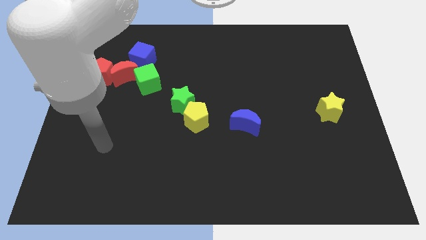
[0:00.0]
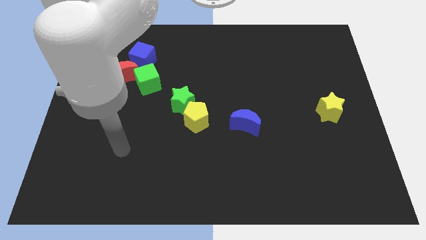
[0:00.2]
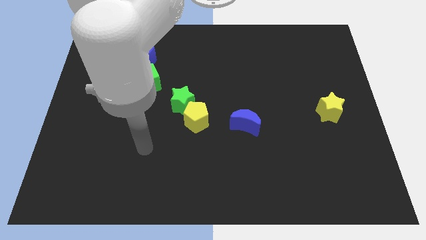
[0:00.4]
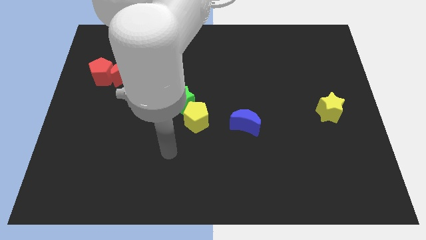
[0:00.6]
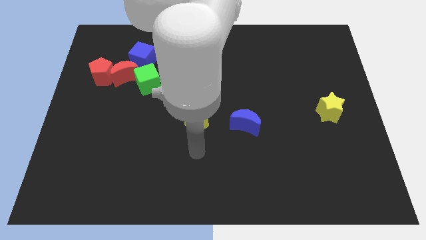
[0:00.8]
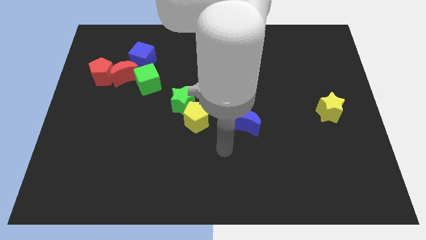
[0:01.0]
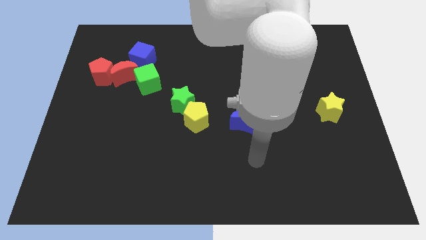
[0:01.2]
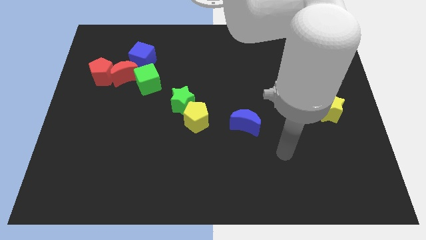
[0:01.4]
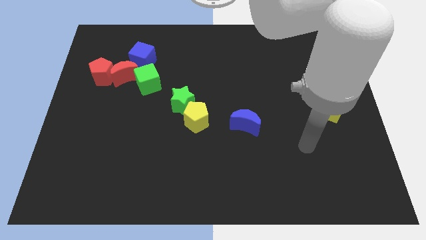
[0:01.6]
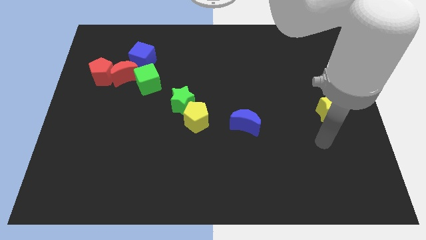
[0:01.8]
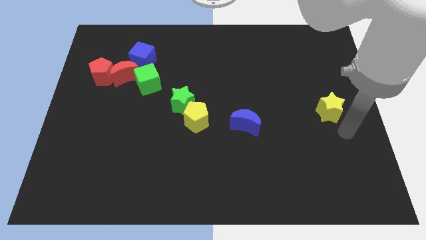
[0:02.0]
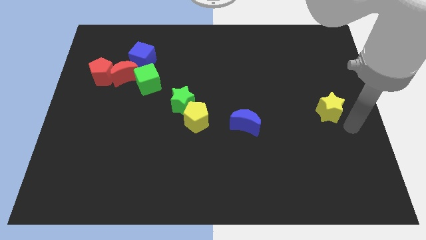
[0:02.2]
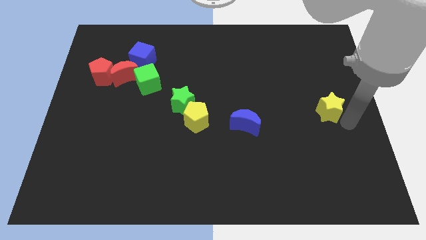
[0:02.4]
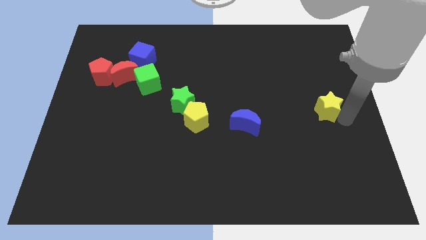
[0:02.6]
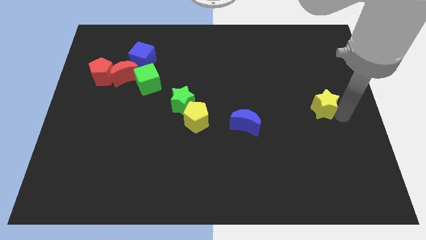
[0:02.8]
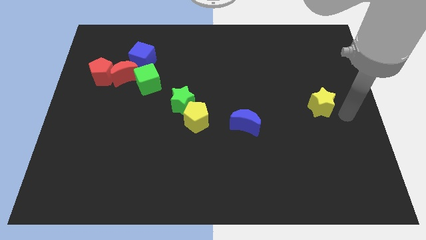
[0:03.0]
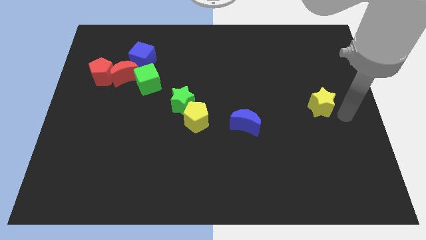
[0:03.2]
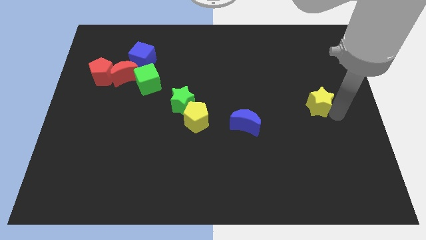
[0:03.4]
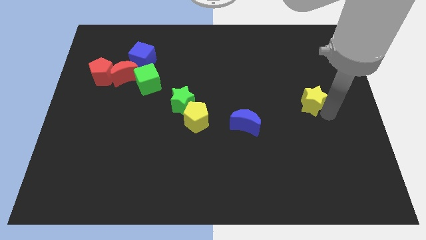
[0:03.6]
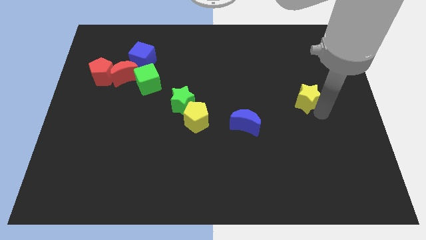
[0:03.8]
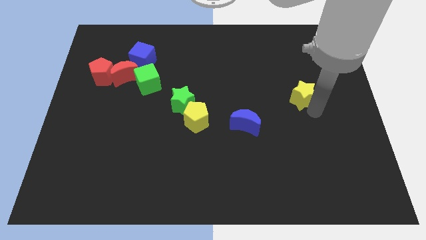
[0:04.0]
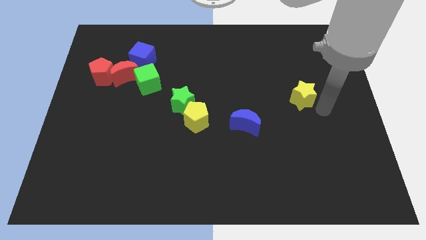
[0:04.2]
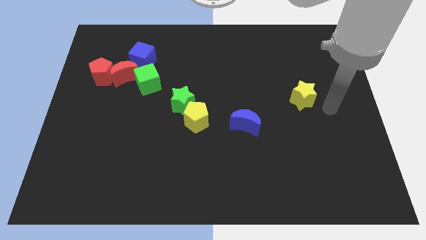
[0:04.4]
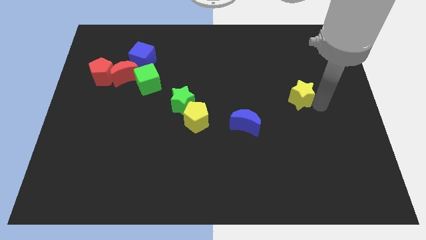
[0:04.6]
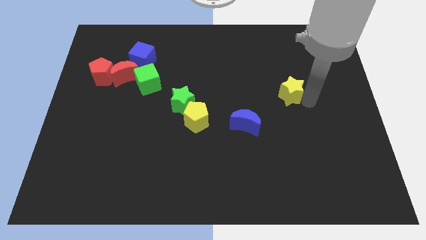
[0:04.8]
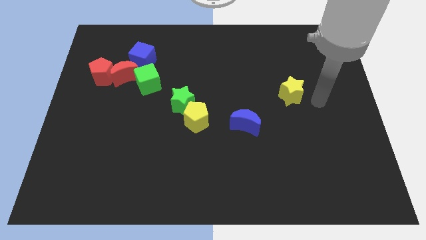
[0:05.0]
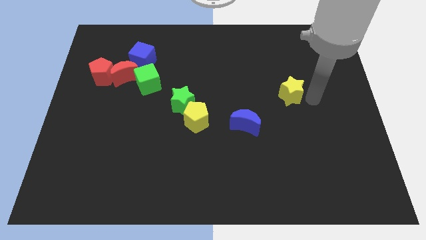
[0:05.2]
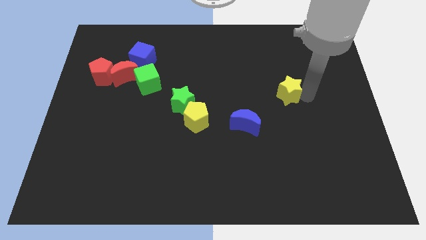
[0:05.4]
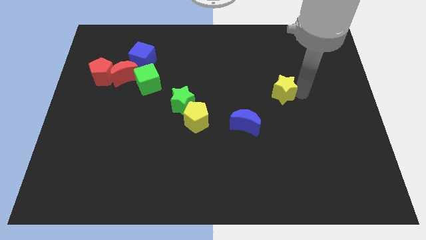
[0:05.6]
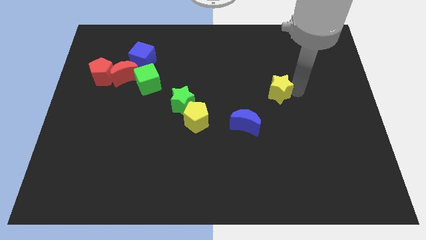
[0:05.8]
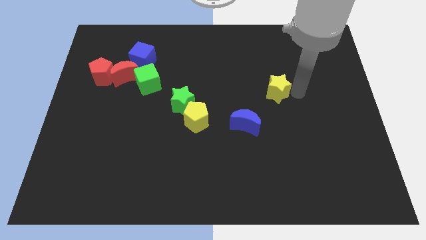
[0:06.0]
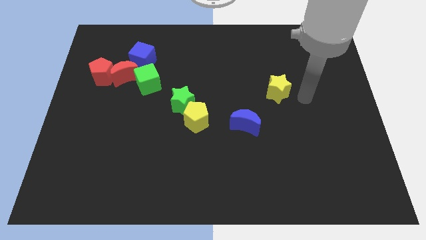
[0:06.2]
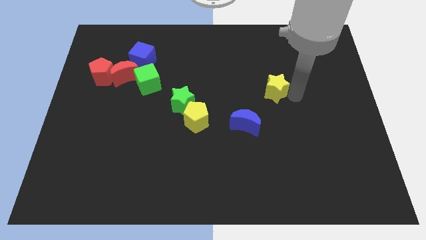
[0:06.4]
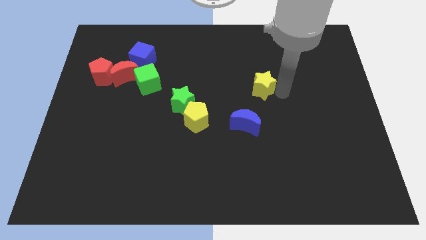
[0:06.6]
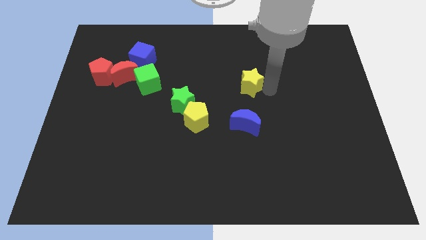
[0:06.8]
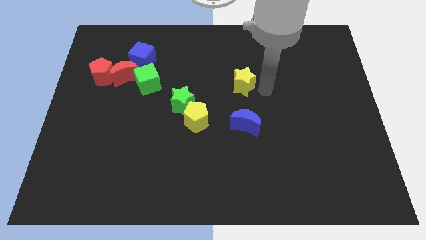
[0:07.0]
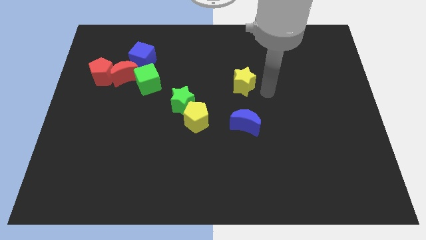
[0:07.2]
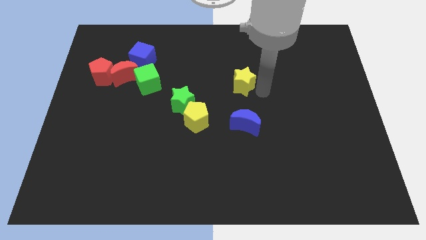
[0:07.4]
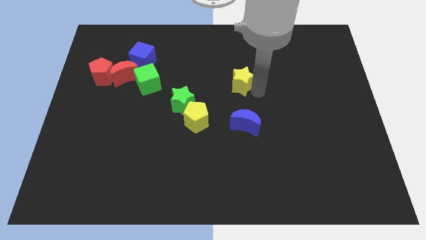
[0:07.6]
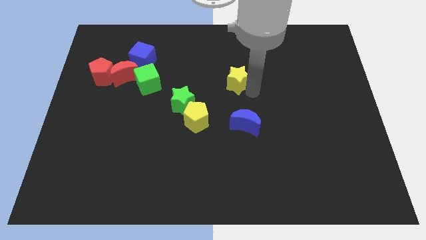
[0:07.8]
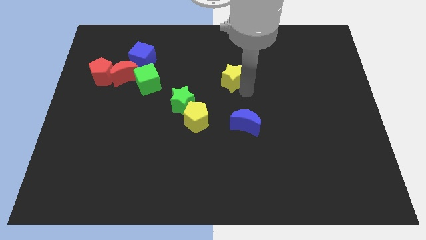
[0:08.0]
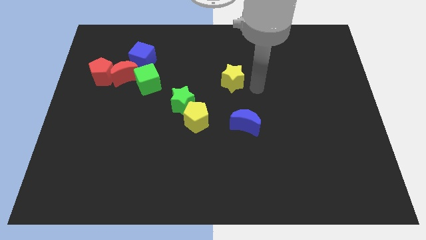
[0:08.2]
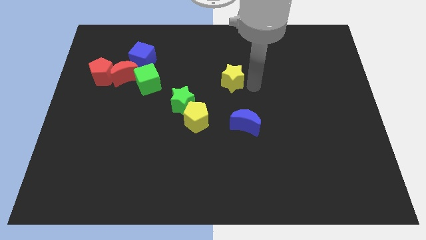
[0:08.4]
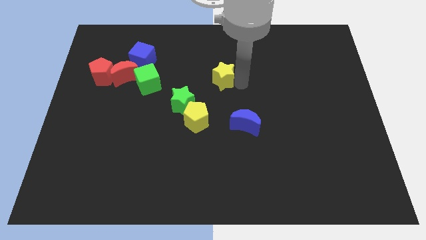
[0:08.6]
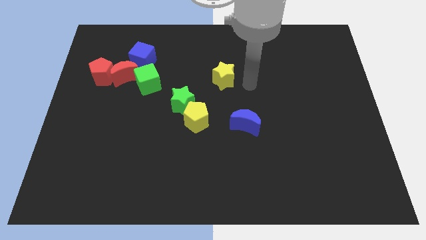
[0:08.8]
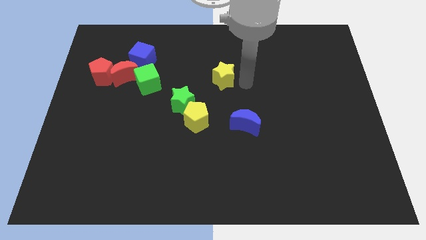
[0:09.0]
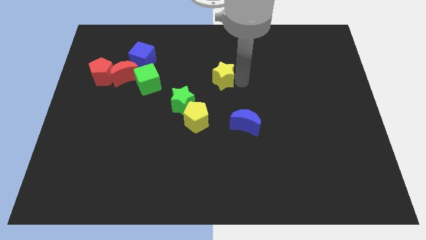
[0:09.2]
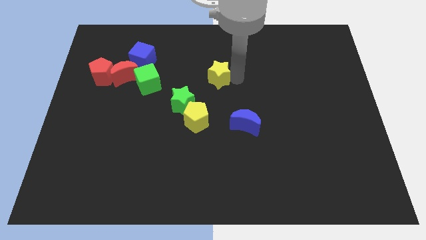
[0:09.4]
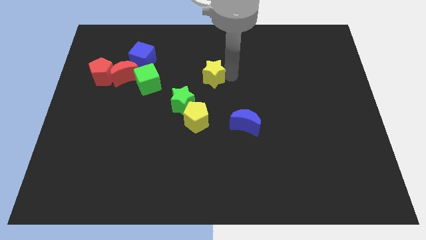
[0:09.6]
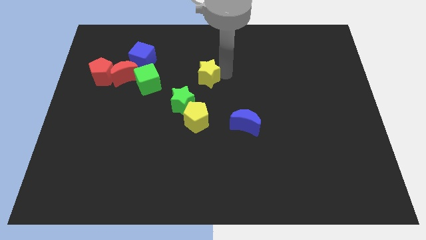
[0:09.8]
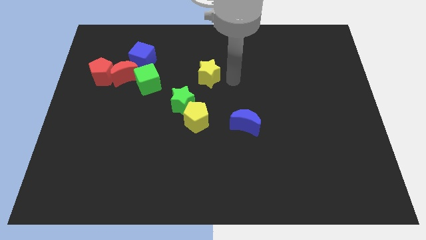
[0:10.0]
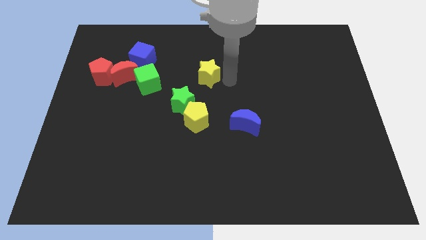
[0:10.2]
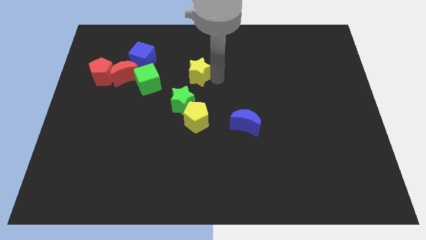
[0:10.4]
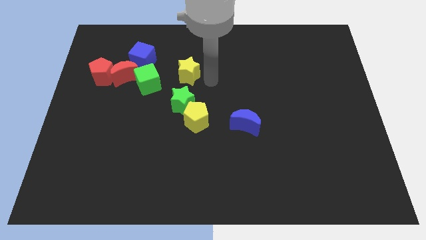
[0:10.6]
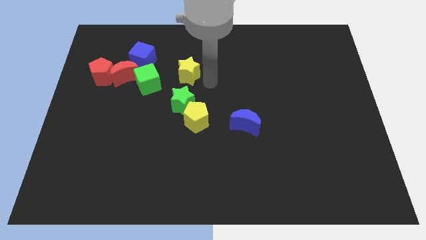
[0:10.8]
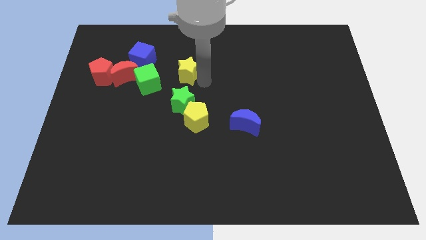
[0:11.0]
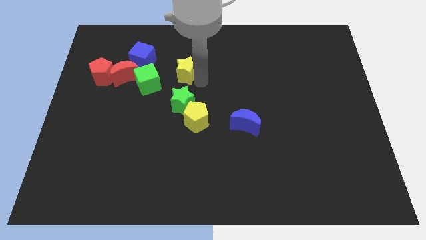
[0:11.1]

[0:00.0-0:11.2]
slide the yellow star to the top right of the green cube

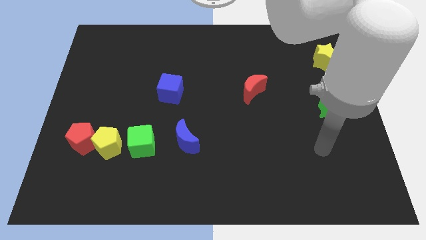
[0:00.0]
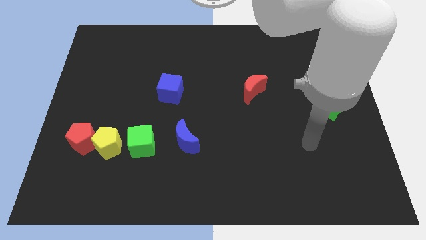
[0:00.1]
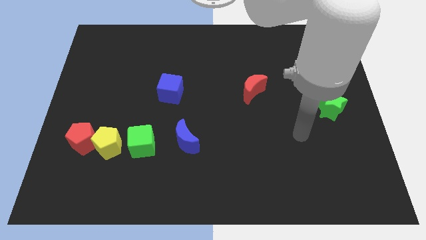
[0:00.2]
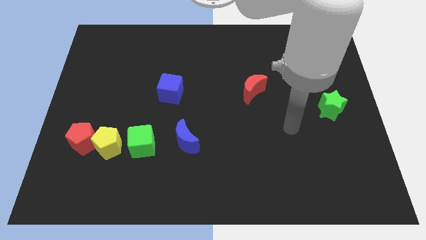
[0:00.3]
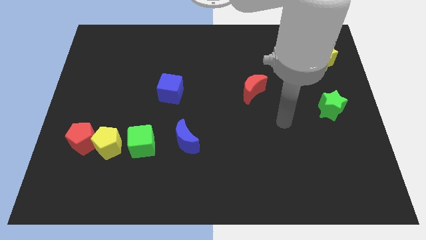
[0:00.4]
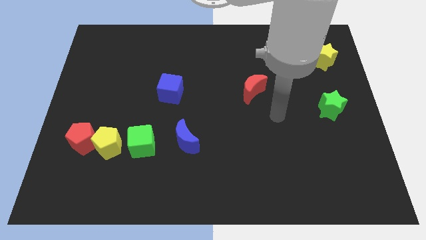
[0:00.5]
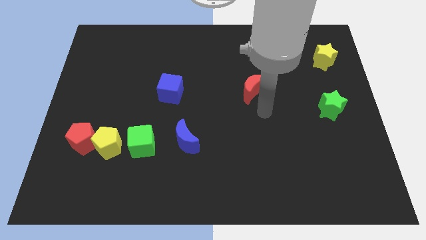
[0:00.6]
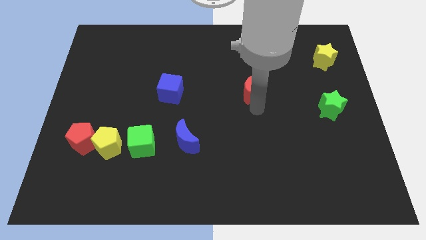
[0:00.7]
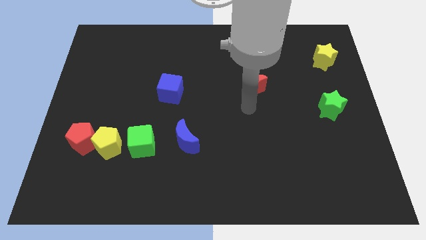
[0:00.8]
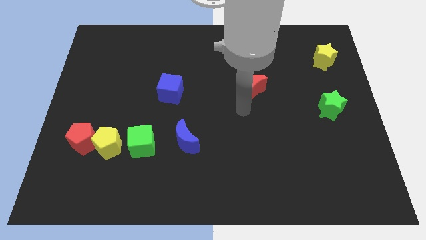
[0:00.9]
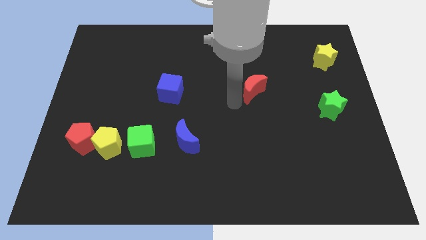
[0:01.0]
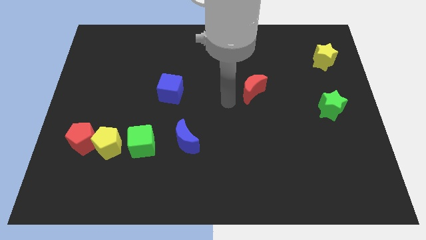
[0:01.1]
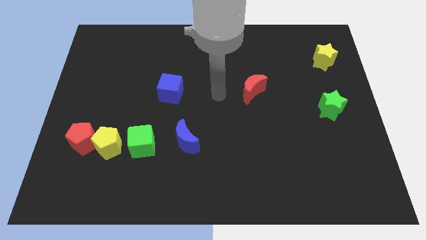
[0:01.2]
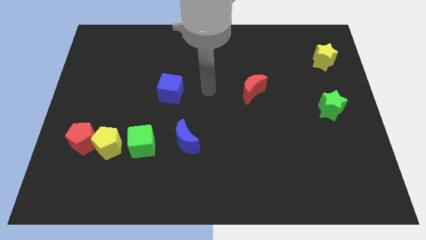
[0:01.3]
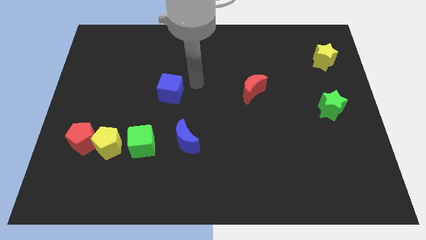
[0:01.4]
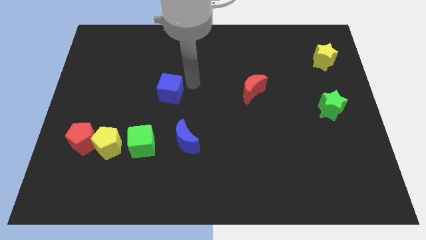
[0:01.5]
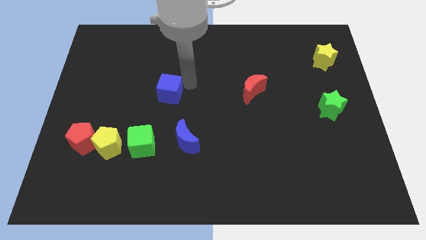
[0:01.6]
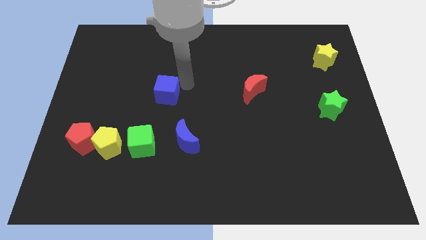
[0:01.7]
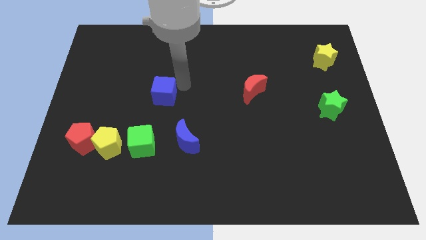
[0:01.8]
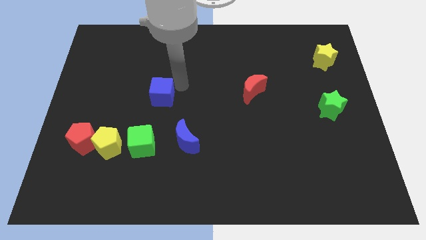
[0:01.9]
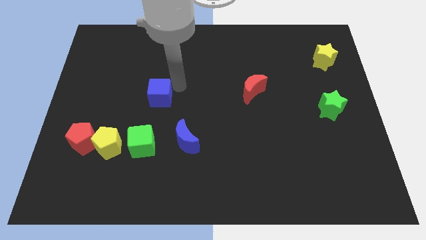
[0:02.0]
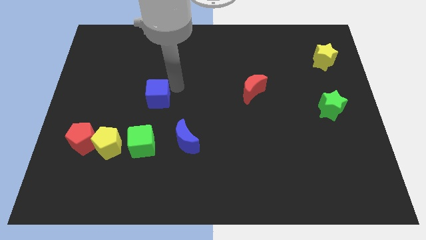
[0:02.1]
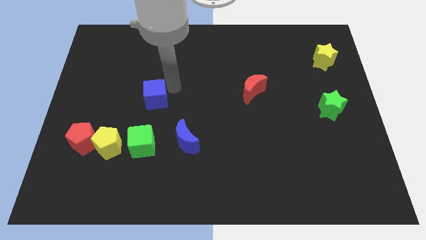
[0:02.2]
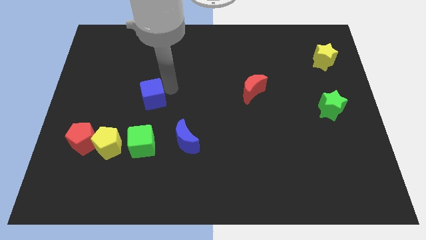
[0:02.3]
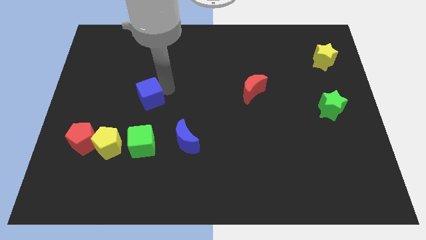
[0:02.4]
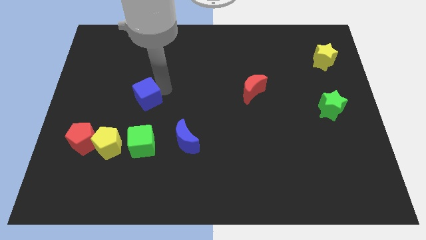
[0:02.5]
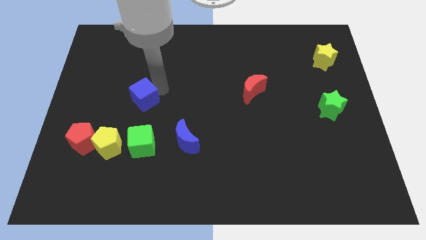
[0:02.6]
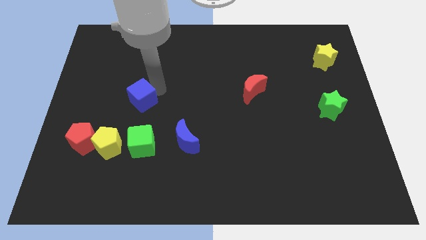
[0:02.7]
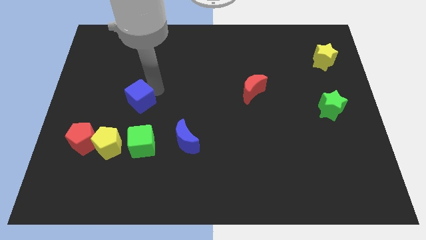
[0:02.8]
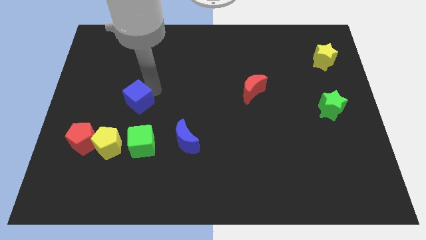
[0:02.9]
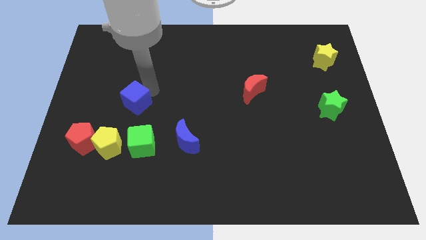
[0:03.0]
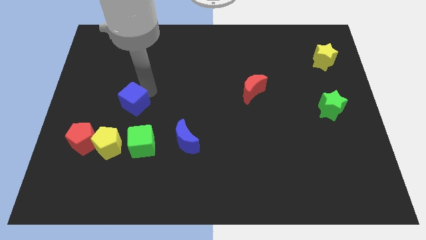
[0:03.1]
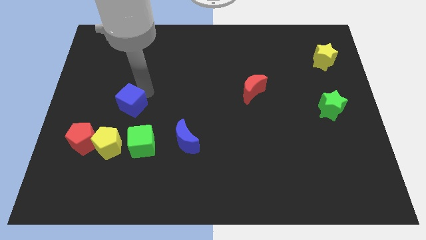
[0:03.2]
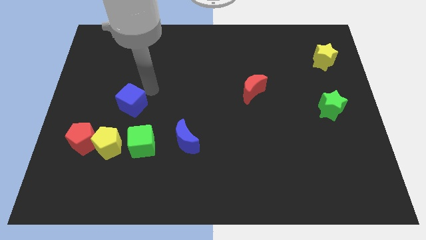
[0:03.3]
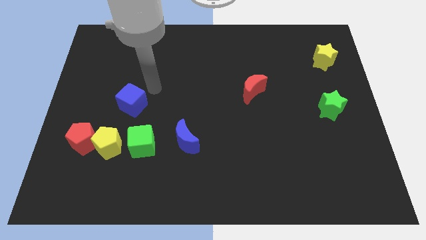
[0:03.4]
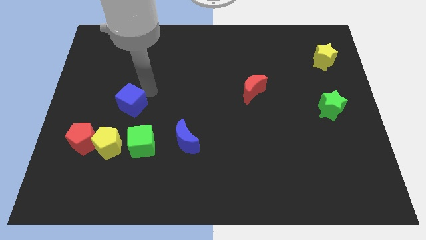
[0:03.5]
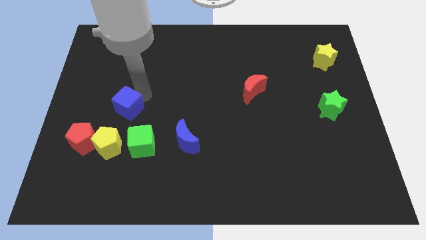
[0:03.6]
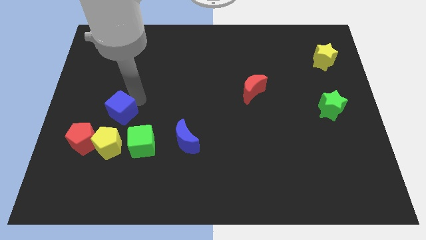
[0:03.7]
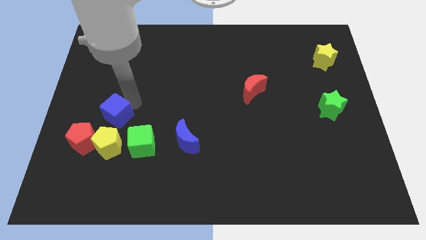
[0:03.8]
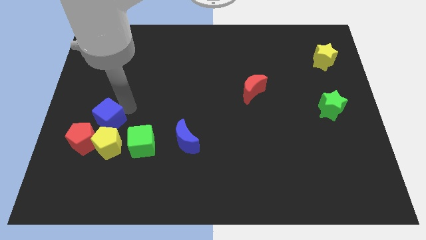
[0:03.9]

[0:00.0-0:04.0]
put the blue cube diagonally up and to the left of the yellow pentagon
